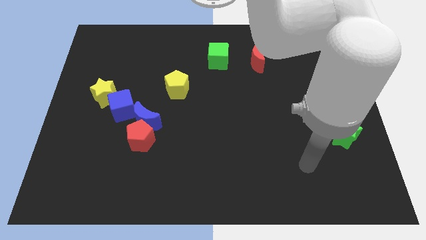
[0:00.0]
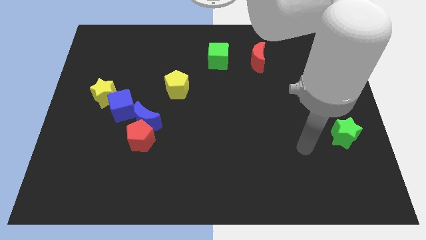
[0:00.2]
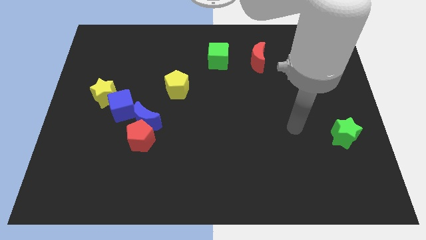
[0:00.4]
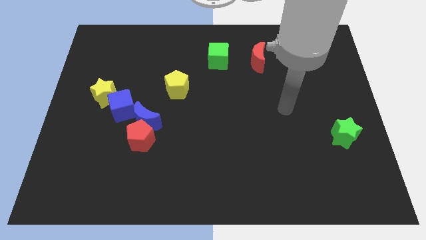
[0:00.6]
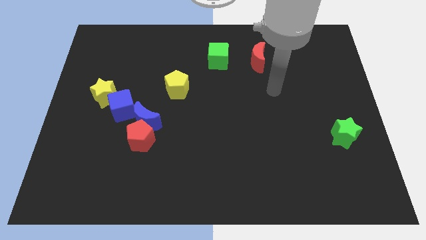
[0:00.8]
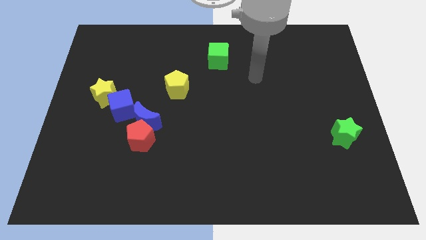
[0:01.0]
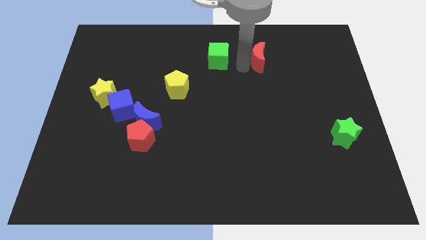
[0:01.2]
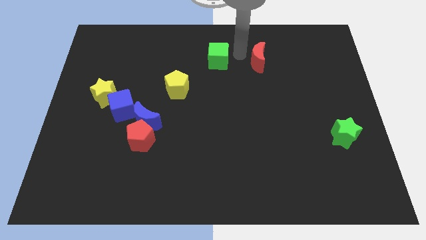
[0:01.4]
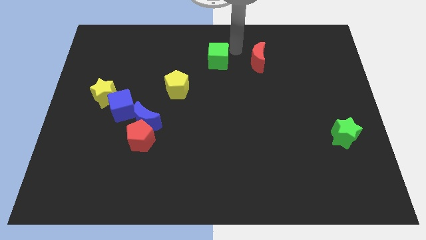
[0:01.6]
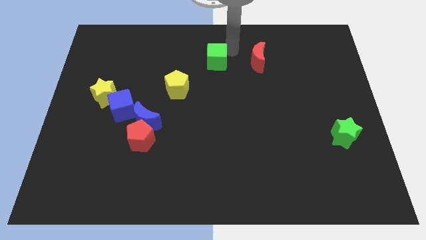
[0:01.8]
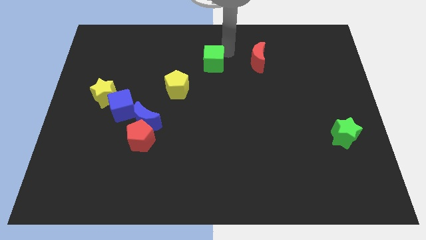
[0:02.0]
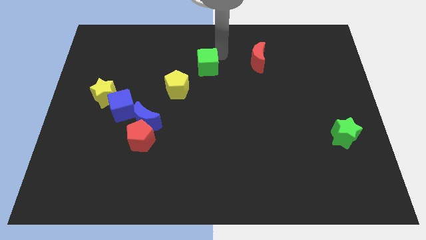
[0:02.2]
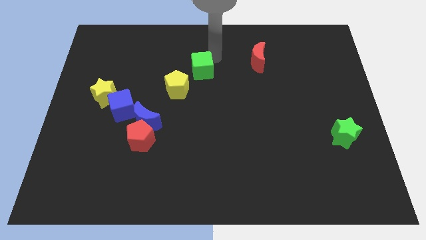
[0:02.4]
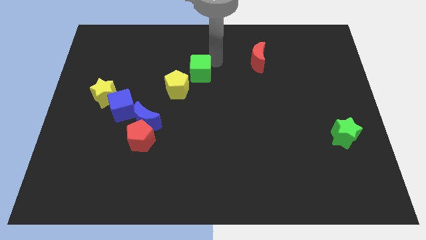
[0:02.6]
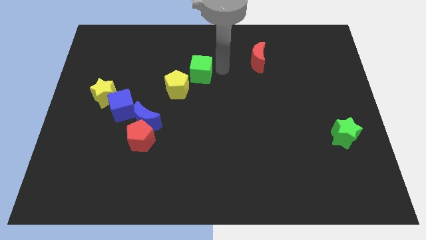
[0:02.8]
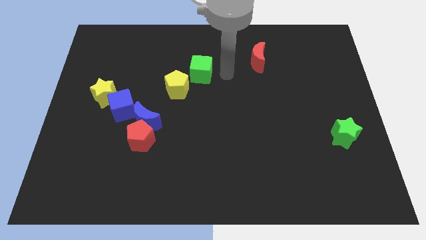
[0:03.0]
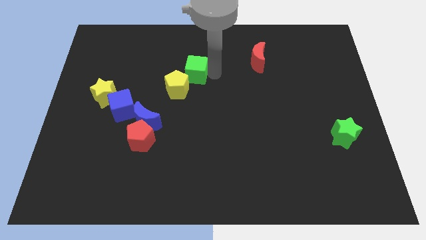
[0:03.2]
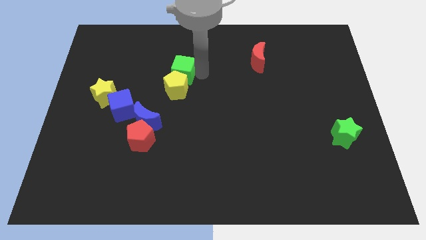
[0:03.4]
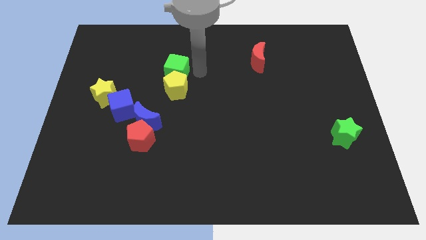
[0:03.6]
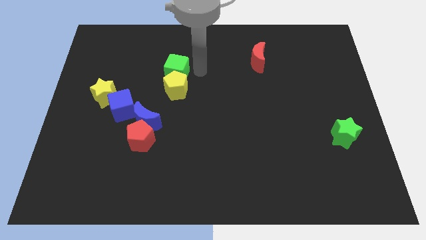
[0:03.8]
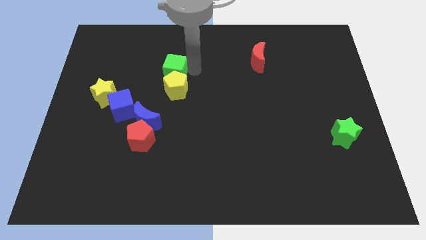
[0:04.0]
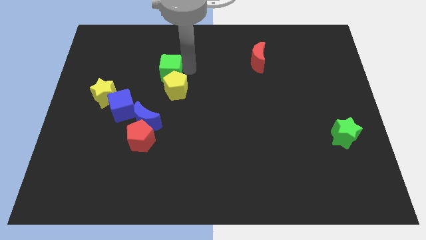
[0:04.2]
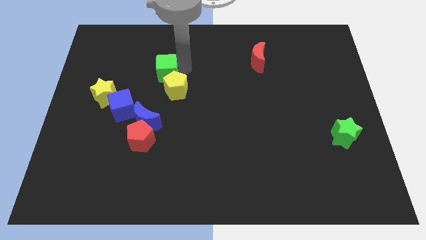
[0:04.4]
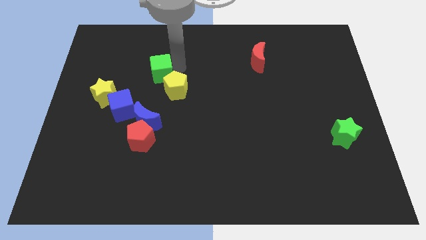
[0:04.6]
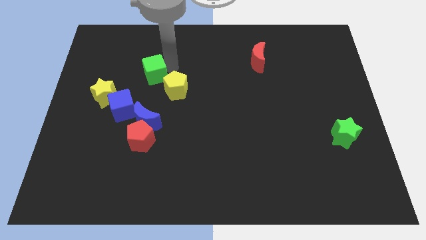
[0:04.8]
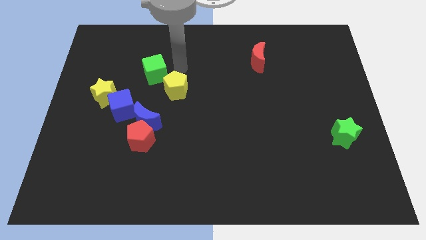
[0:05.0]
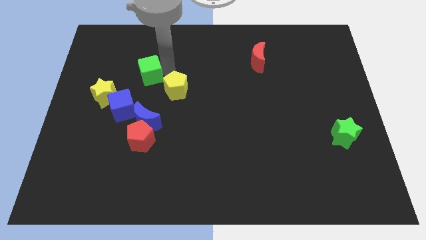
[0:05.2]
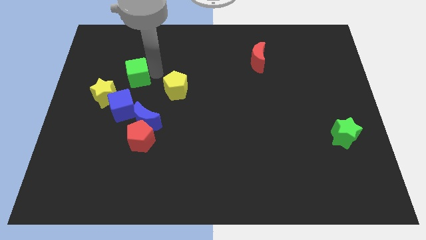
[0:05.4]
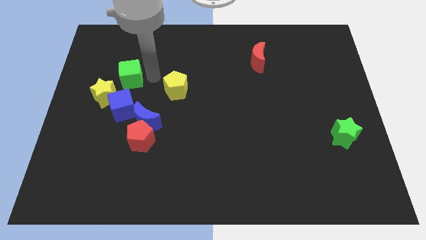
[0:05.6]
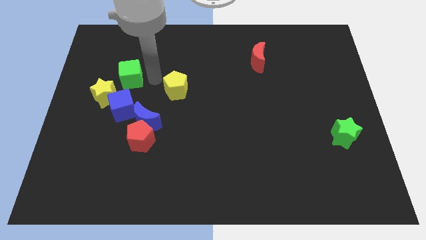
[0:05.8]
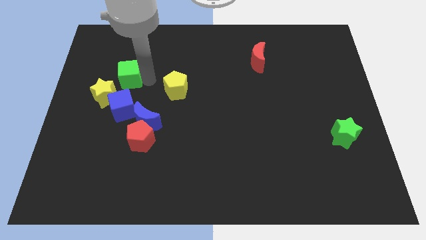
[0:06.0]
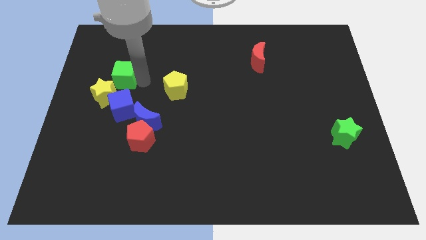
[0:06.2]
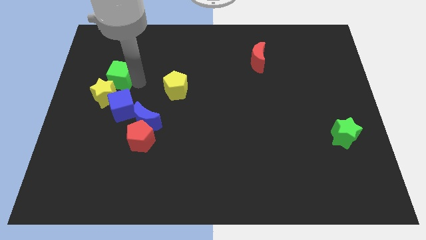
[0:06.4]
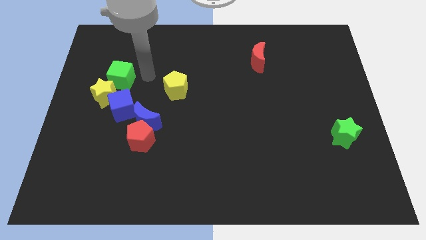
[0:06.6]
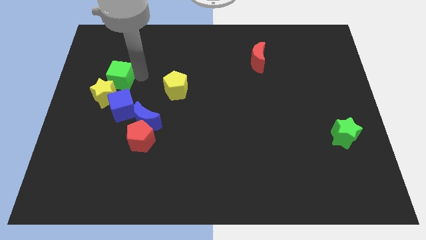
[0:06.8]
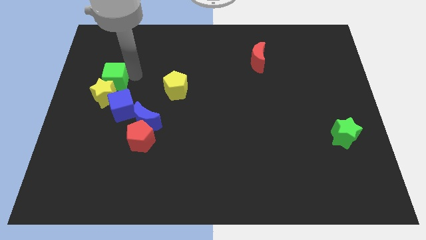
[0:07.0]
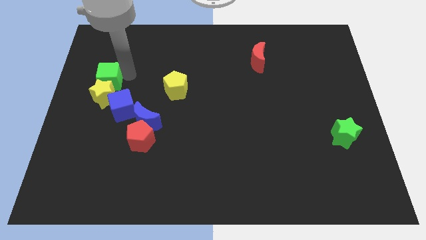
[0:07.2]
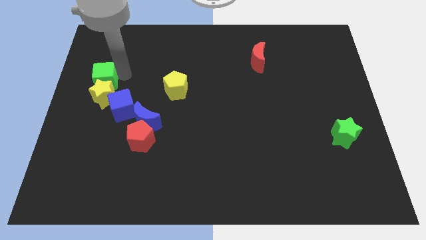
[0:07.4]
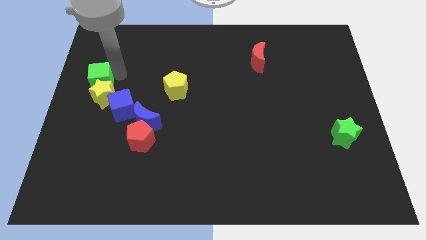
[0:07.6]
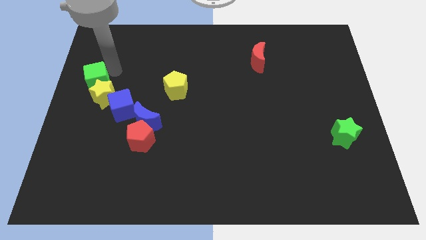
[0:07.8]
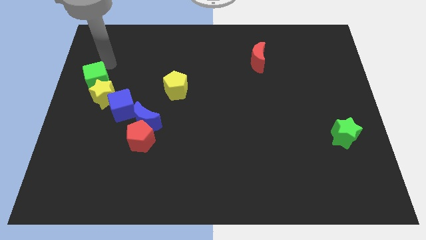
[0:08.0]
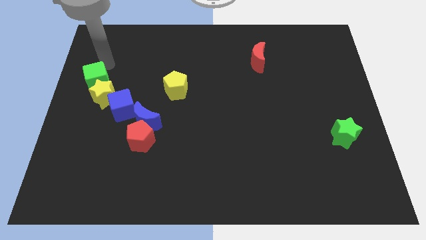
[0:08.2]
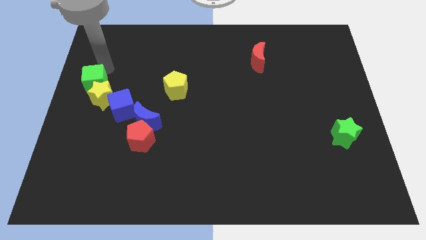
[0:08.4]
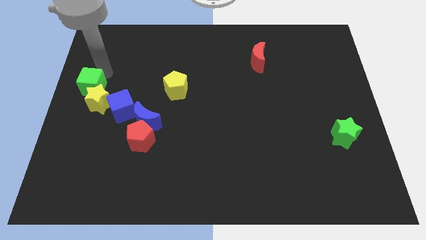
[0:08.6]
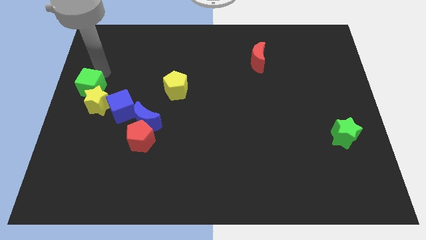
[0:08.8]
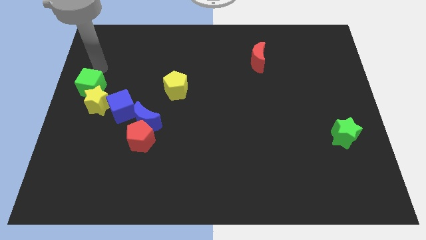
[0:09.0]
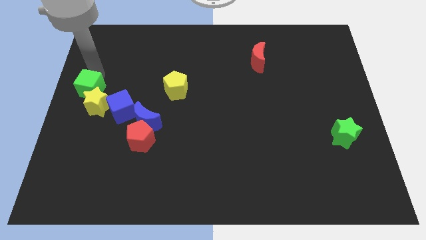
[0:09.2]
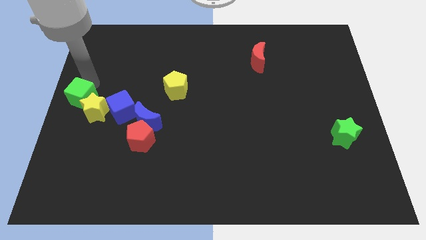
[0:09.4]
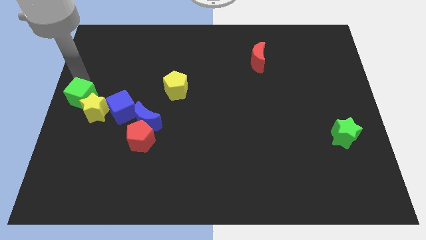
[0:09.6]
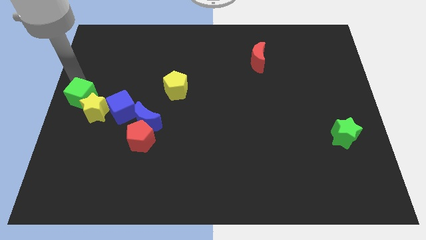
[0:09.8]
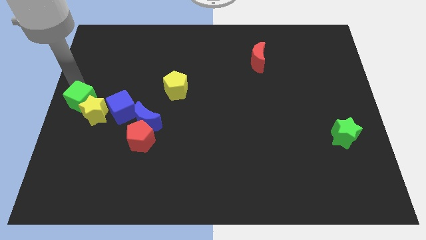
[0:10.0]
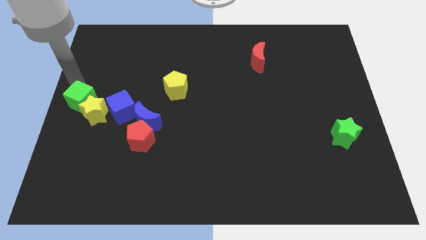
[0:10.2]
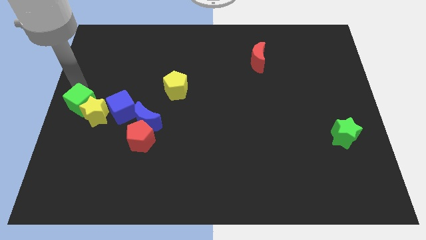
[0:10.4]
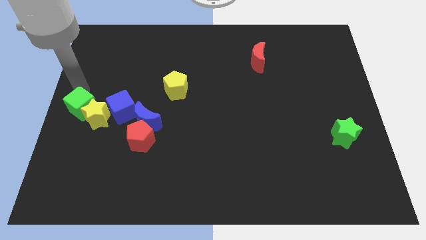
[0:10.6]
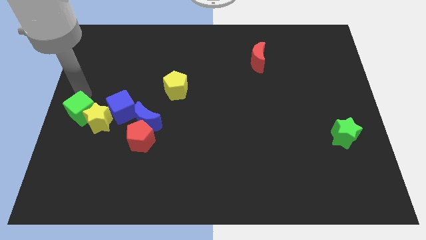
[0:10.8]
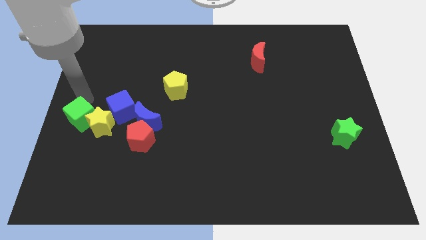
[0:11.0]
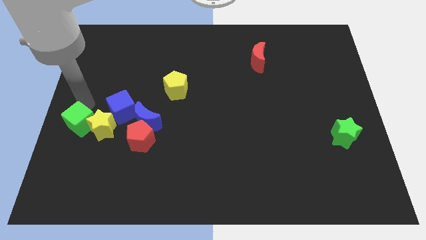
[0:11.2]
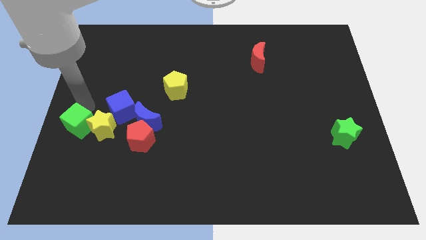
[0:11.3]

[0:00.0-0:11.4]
move the green cube to the left side of the red pentagon

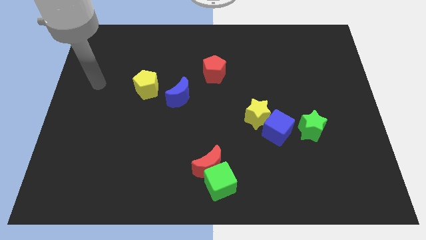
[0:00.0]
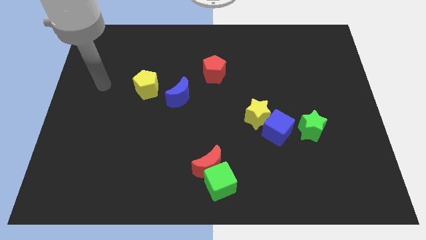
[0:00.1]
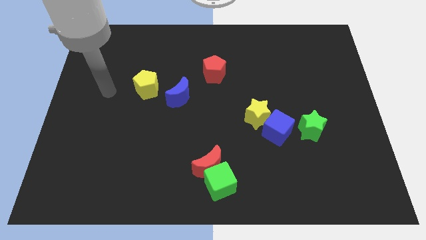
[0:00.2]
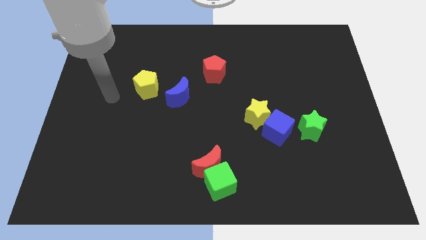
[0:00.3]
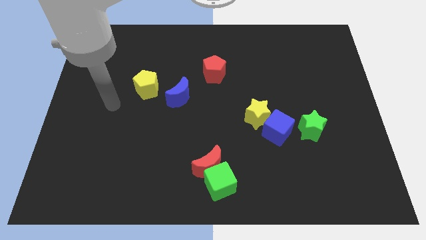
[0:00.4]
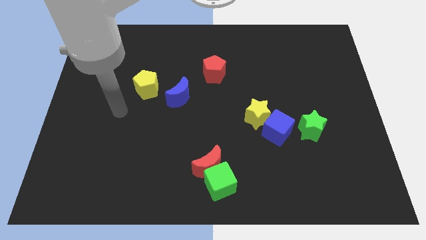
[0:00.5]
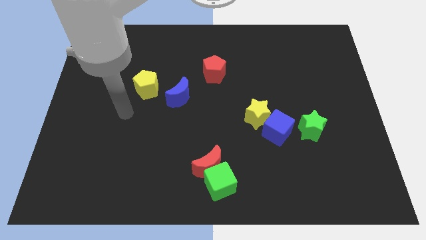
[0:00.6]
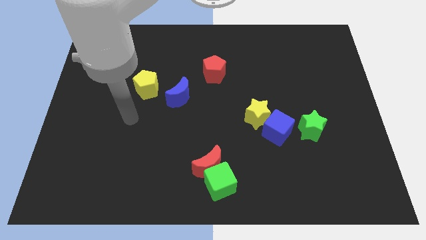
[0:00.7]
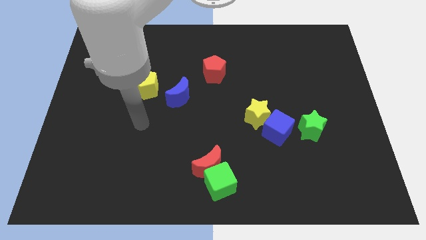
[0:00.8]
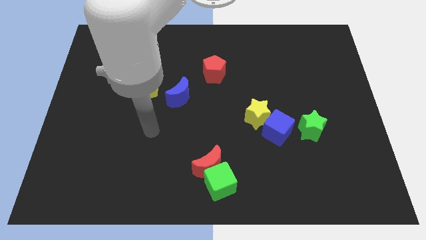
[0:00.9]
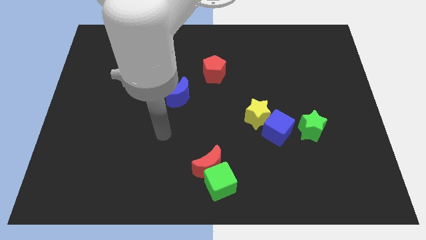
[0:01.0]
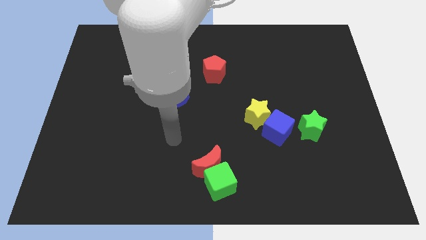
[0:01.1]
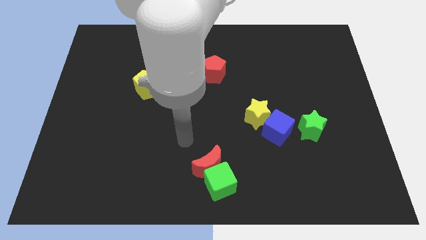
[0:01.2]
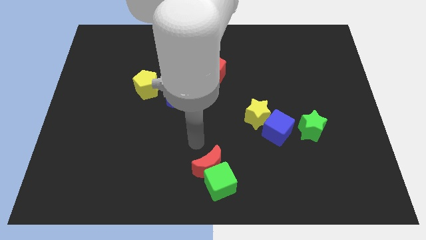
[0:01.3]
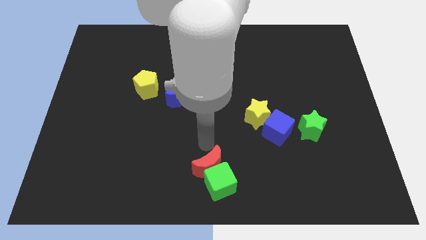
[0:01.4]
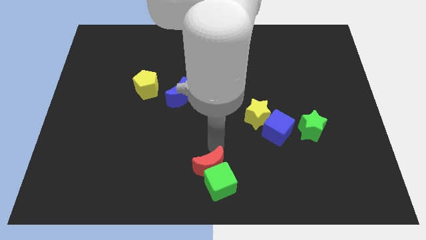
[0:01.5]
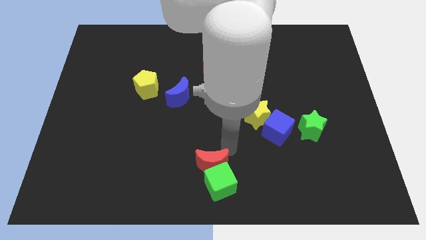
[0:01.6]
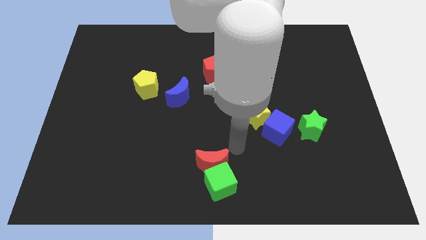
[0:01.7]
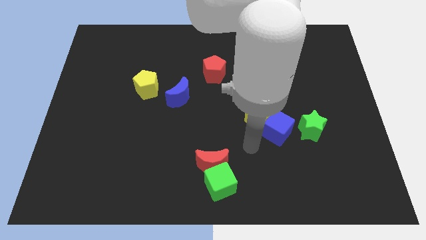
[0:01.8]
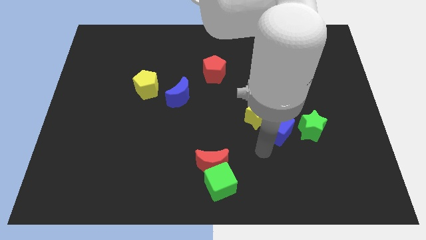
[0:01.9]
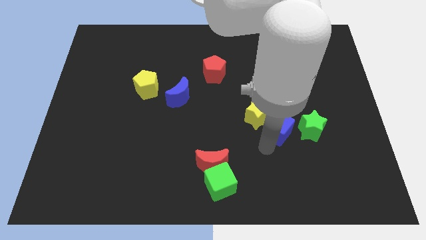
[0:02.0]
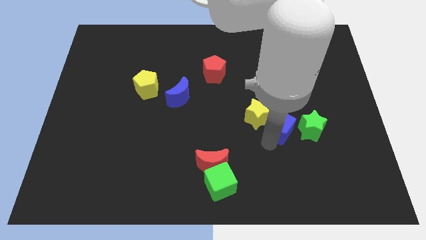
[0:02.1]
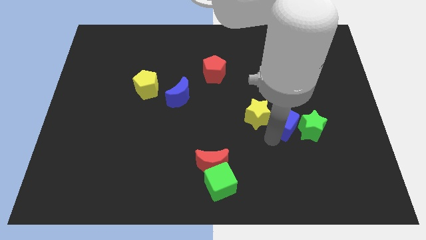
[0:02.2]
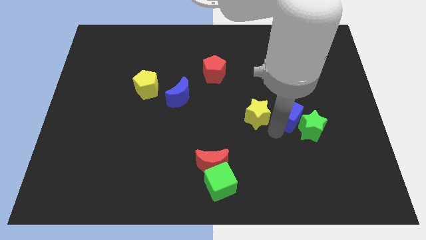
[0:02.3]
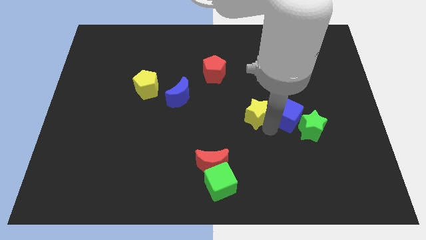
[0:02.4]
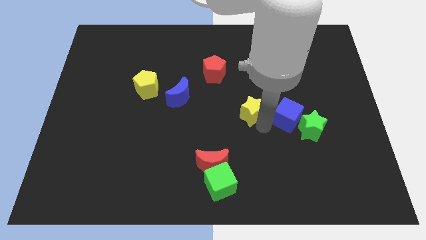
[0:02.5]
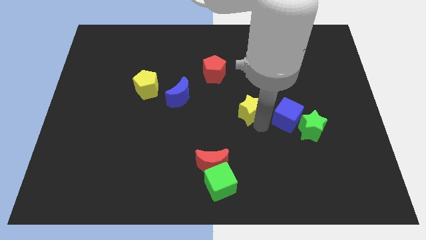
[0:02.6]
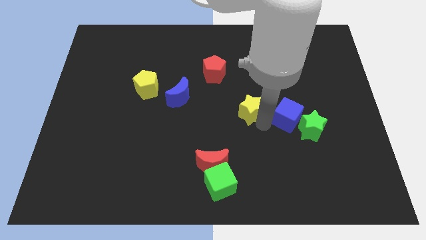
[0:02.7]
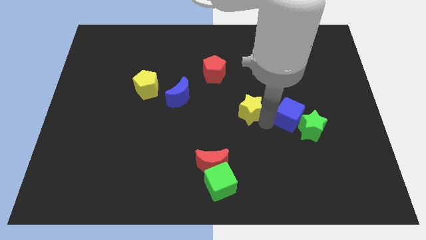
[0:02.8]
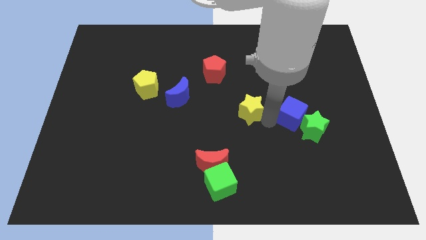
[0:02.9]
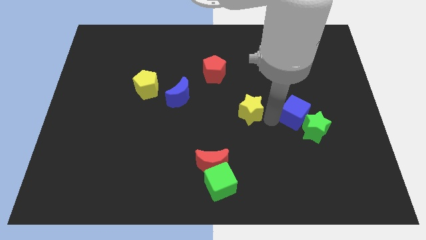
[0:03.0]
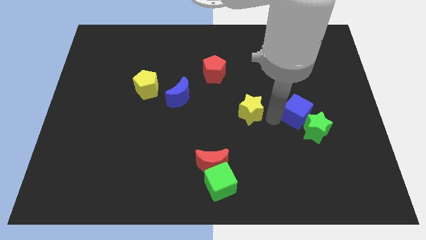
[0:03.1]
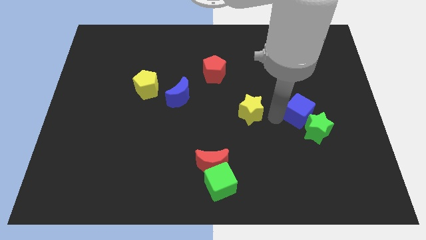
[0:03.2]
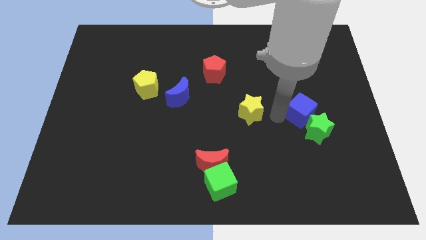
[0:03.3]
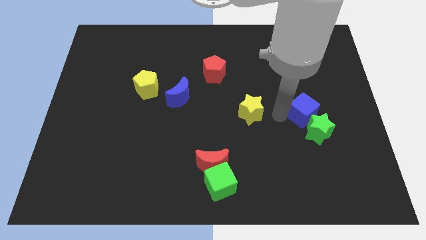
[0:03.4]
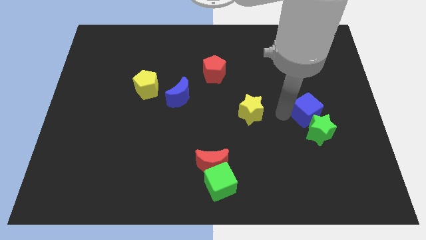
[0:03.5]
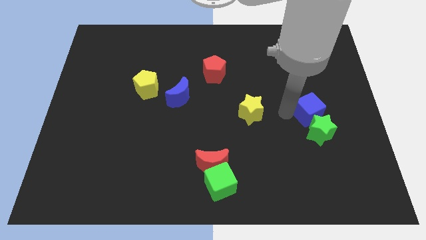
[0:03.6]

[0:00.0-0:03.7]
put the blue cube to the top right side of the green star
